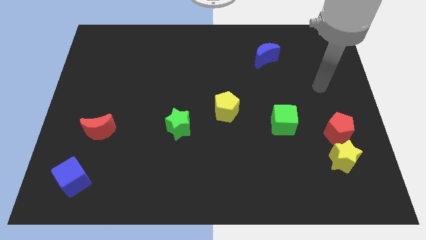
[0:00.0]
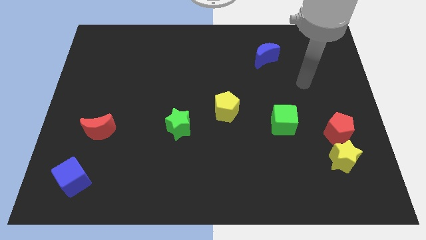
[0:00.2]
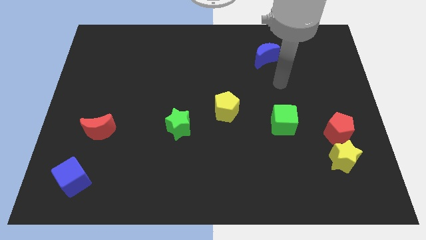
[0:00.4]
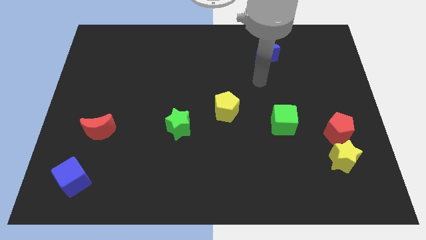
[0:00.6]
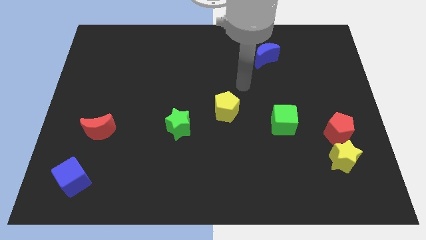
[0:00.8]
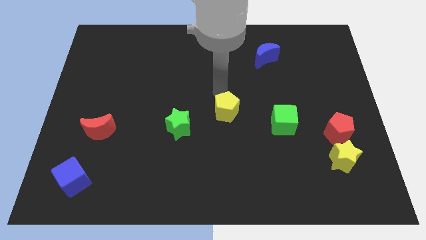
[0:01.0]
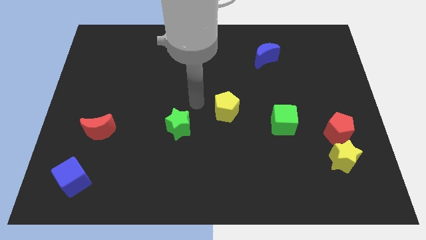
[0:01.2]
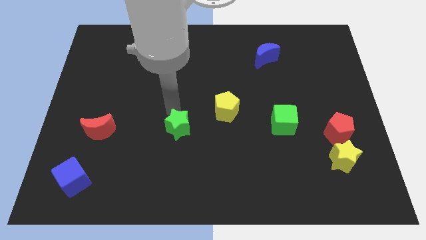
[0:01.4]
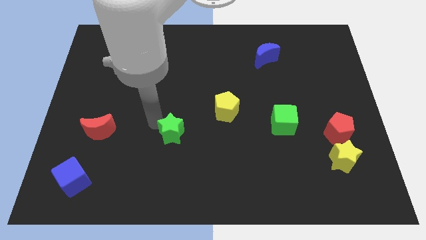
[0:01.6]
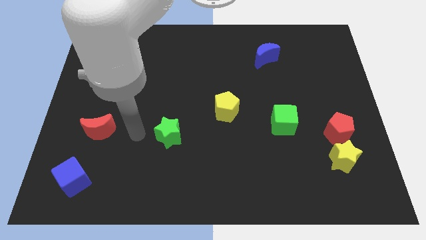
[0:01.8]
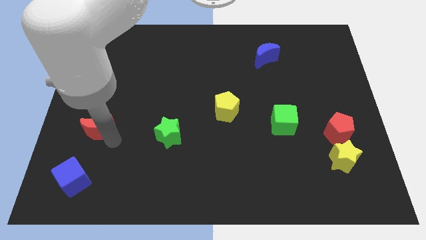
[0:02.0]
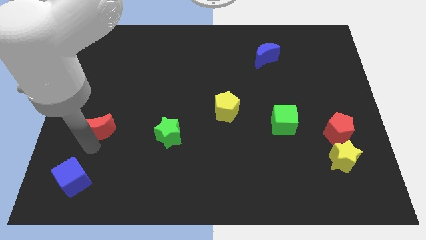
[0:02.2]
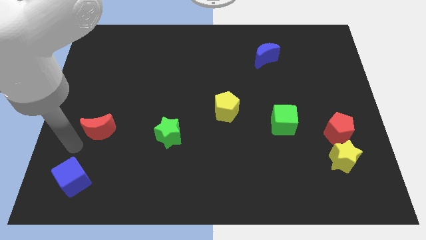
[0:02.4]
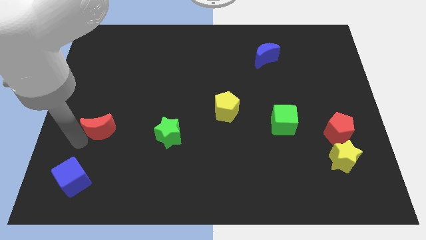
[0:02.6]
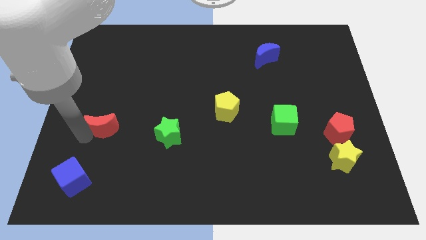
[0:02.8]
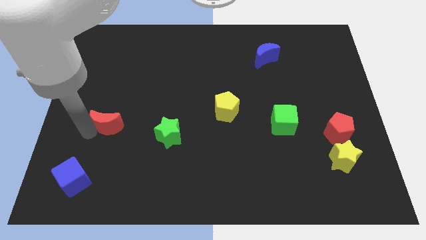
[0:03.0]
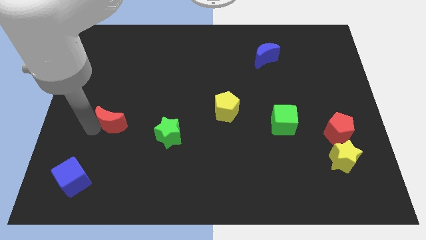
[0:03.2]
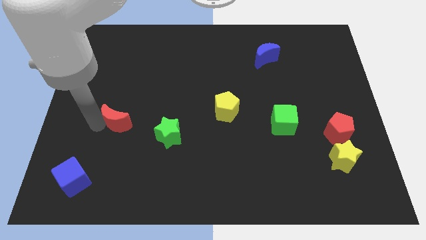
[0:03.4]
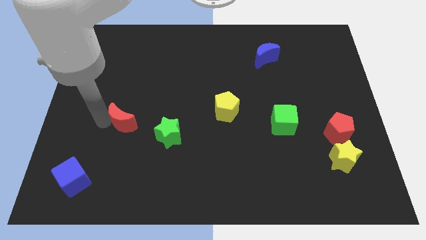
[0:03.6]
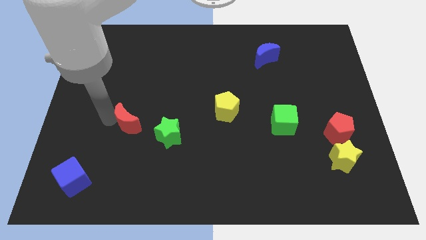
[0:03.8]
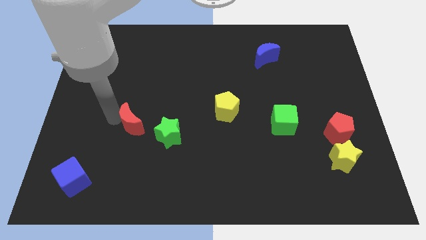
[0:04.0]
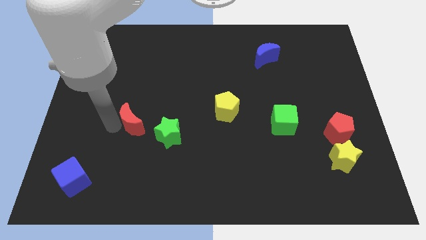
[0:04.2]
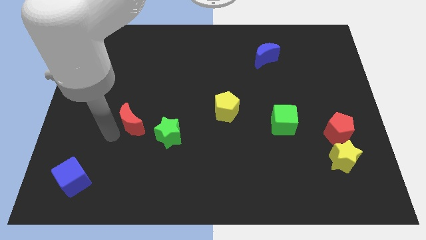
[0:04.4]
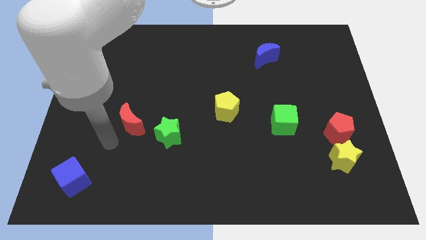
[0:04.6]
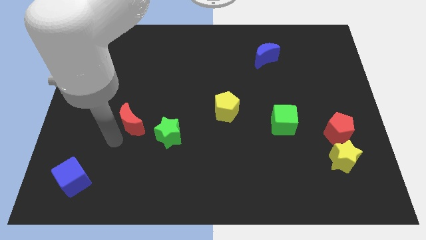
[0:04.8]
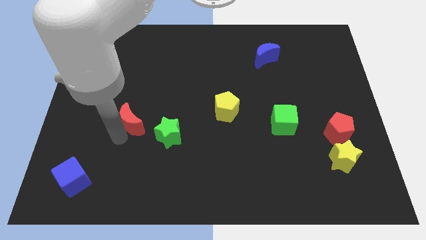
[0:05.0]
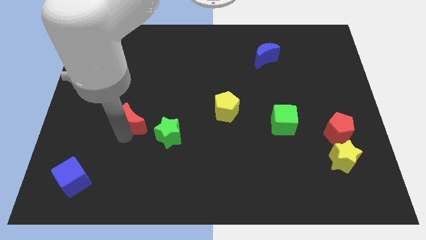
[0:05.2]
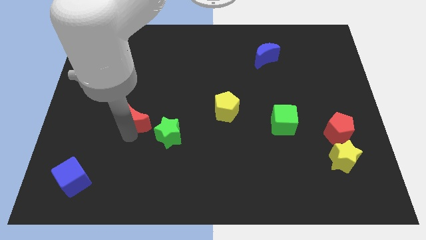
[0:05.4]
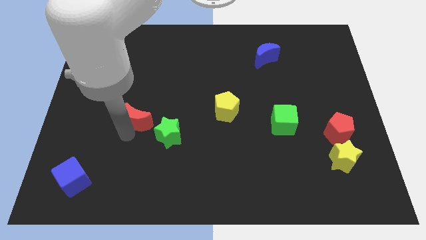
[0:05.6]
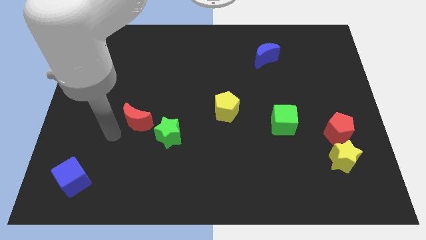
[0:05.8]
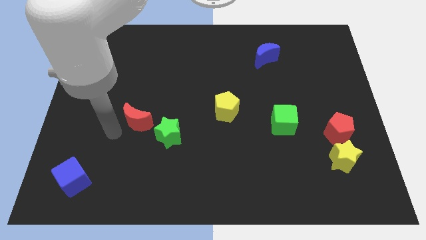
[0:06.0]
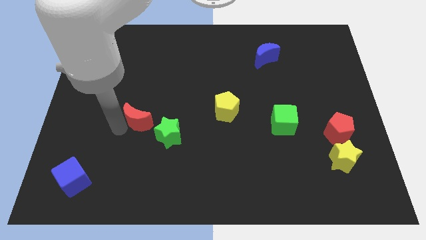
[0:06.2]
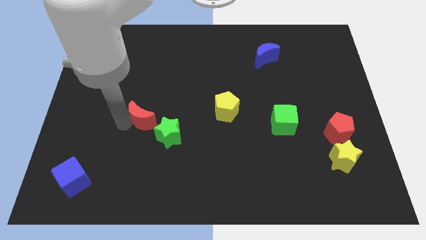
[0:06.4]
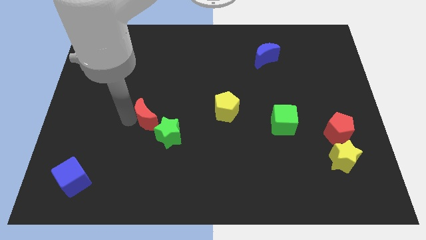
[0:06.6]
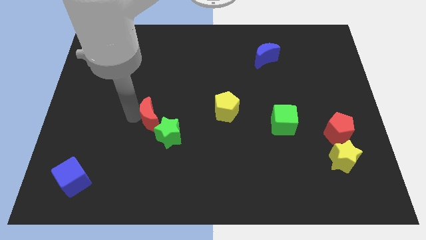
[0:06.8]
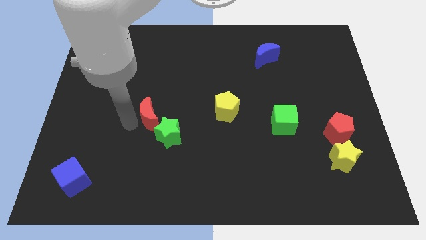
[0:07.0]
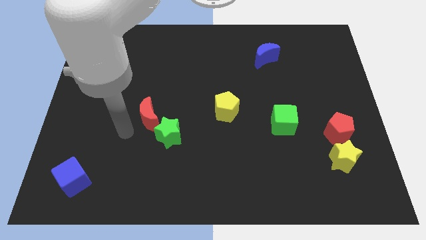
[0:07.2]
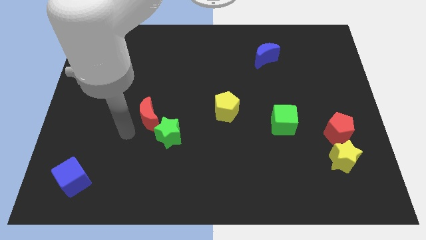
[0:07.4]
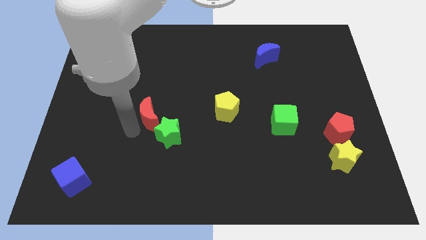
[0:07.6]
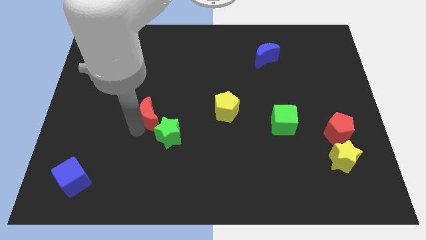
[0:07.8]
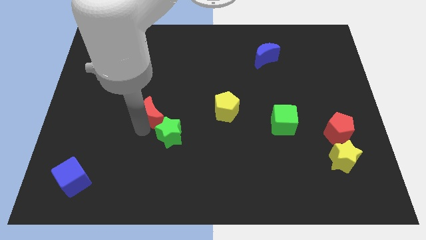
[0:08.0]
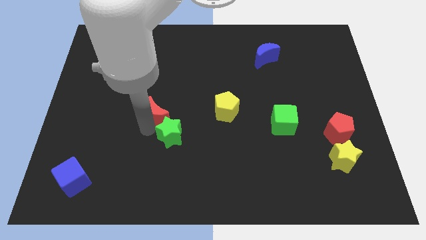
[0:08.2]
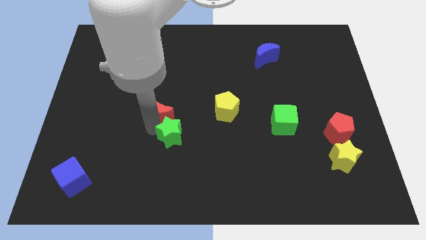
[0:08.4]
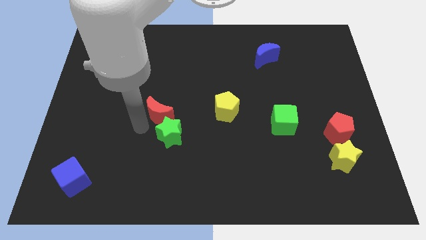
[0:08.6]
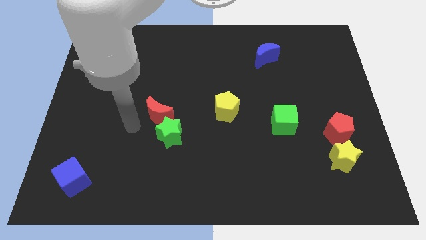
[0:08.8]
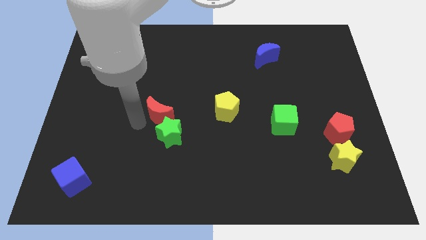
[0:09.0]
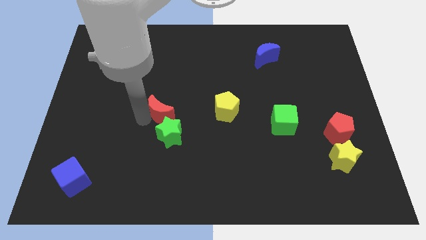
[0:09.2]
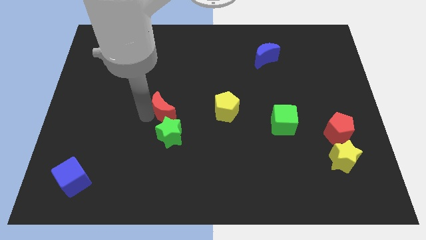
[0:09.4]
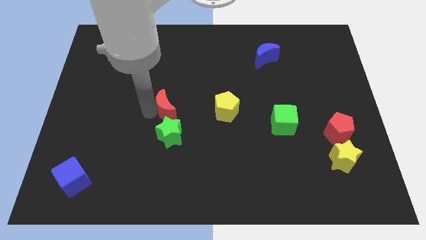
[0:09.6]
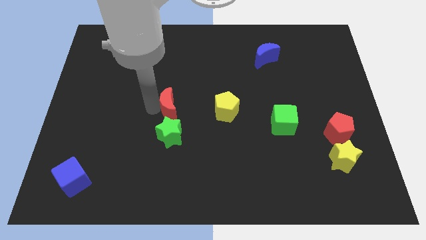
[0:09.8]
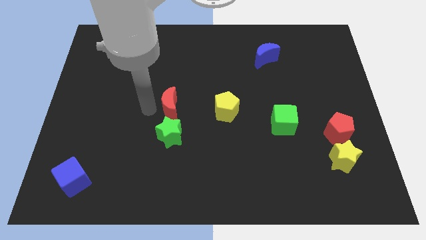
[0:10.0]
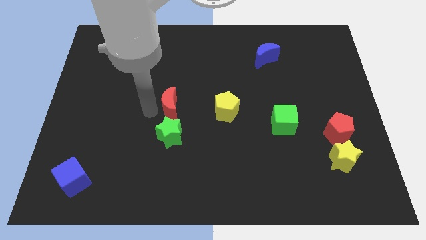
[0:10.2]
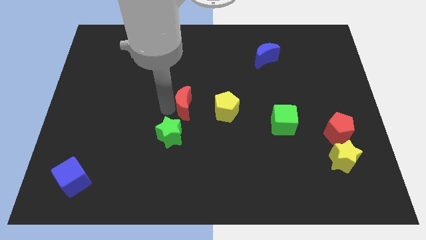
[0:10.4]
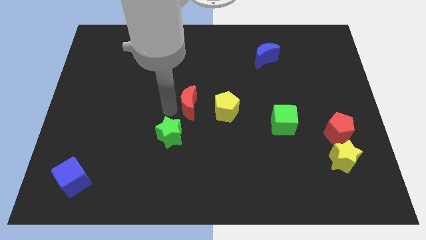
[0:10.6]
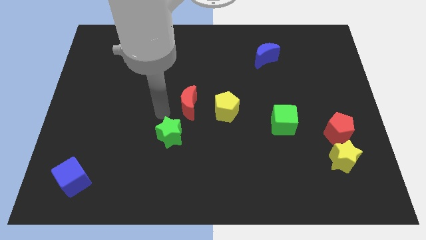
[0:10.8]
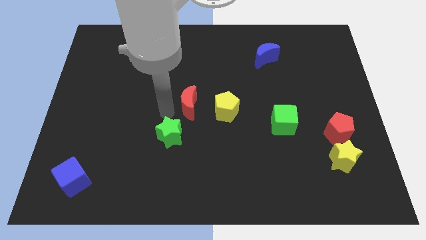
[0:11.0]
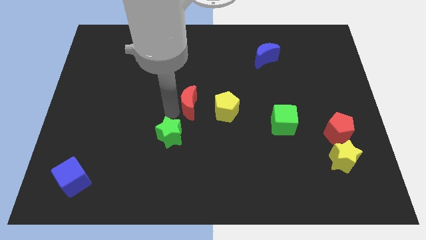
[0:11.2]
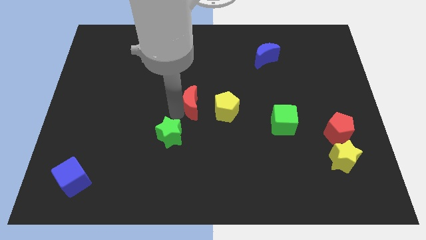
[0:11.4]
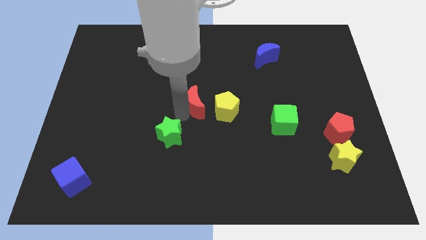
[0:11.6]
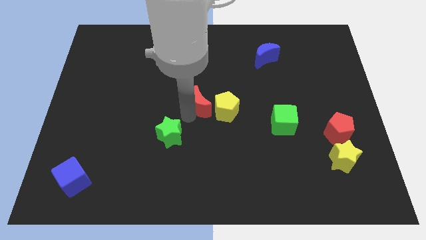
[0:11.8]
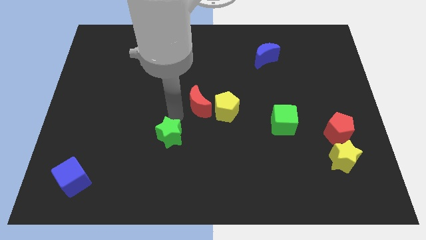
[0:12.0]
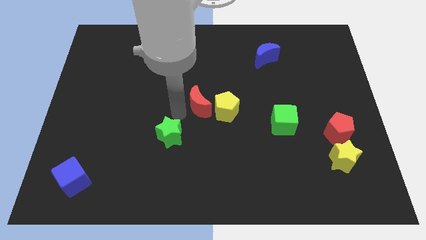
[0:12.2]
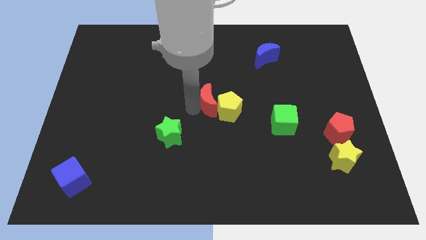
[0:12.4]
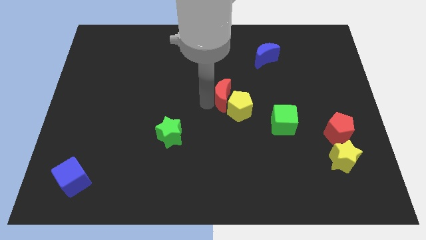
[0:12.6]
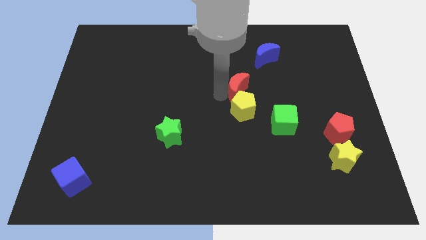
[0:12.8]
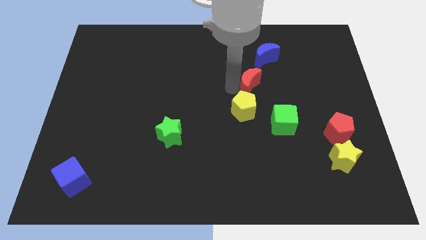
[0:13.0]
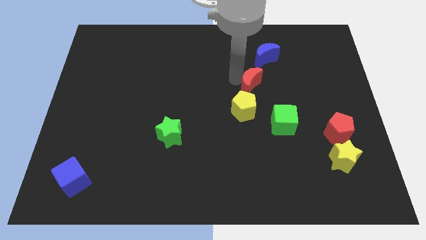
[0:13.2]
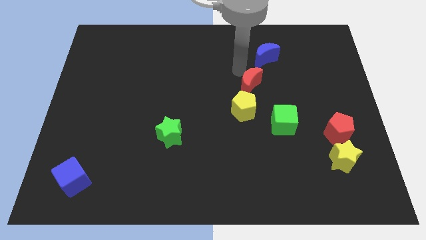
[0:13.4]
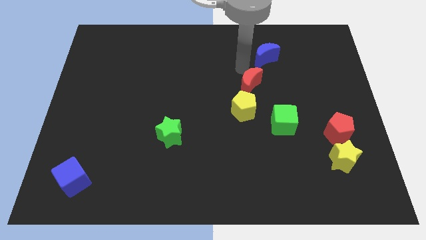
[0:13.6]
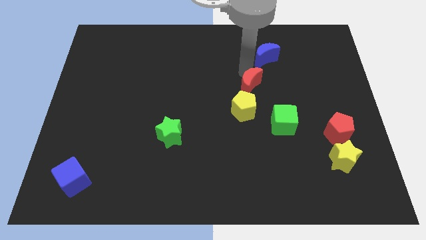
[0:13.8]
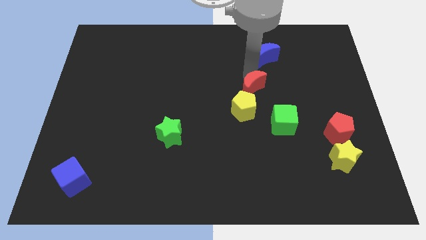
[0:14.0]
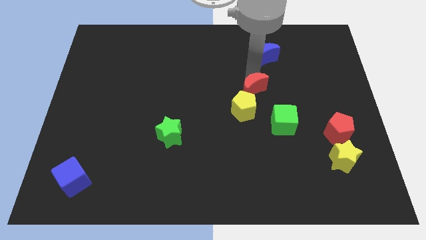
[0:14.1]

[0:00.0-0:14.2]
push the red moon diagonally up and to the left of the green cube

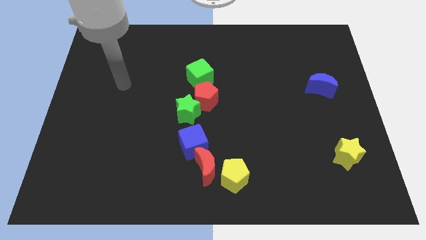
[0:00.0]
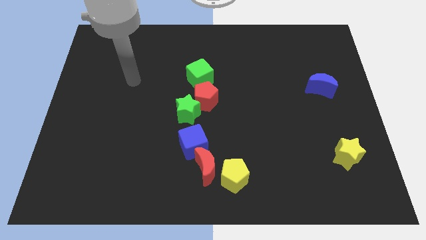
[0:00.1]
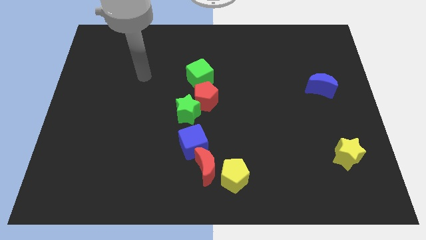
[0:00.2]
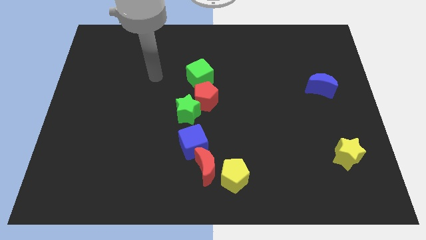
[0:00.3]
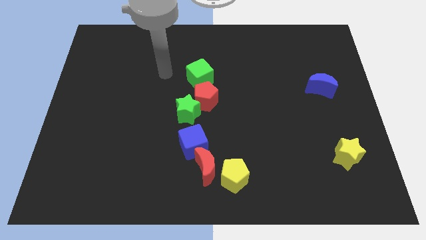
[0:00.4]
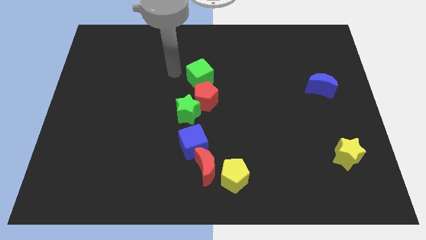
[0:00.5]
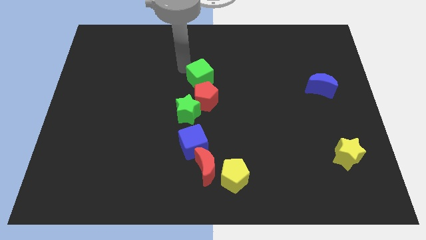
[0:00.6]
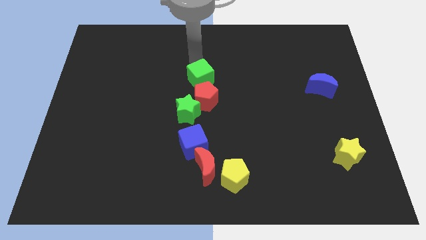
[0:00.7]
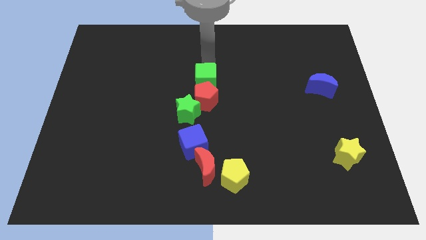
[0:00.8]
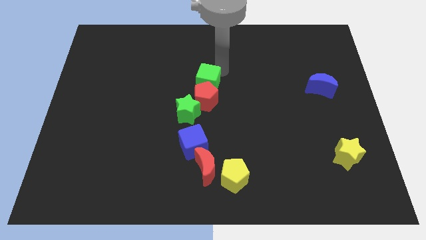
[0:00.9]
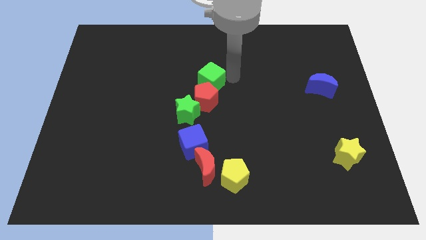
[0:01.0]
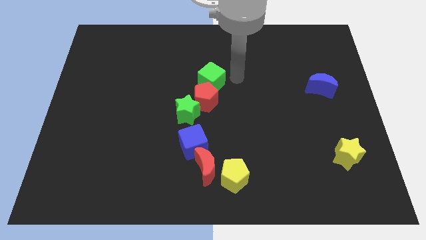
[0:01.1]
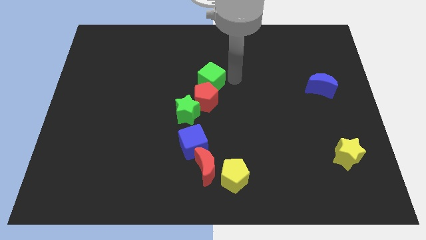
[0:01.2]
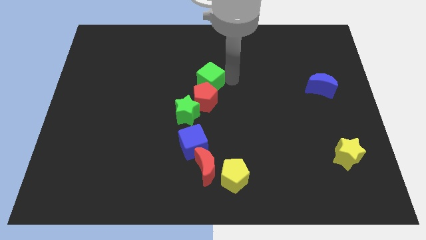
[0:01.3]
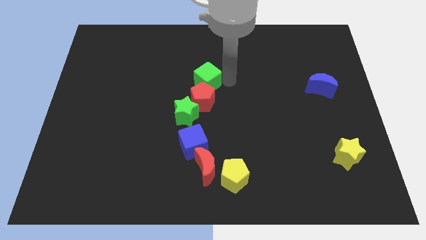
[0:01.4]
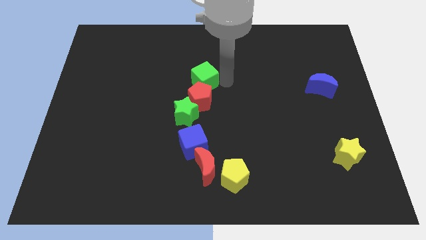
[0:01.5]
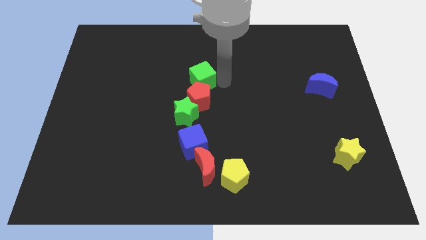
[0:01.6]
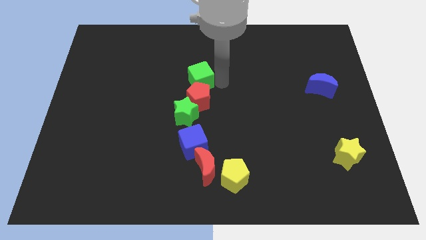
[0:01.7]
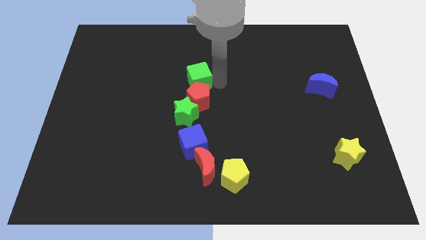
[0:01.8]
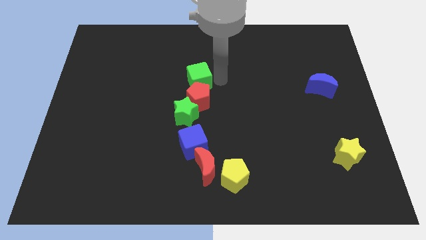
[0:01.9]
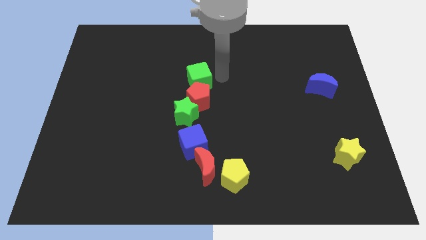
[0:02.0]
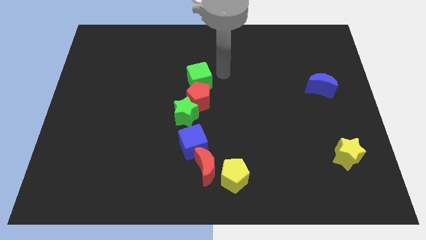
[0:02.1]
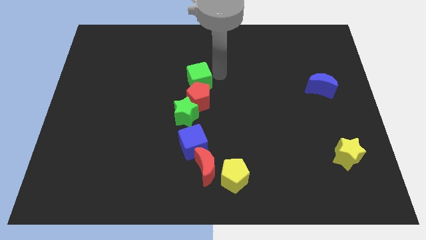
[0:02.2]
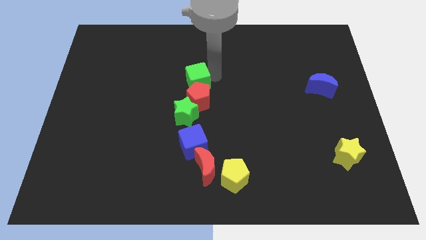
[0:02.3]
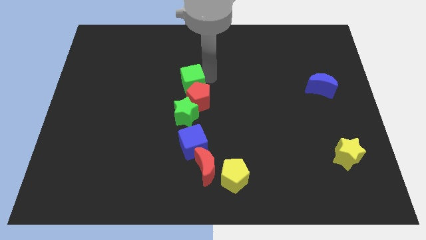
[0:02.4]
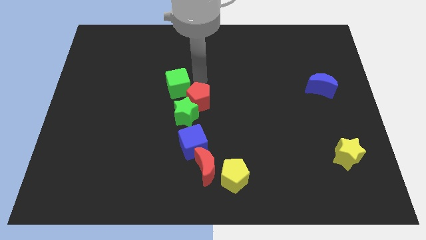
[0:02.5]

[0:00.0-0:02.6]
move the green cube just left of the red pentagon
